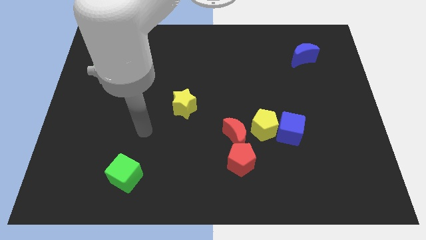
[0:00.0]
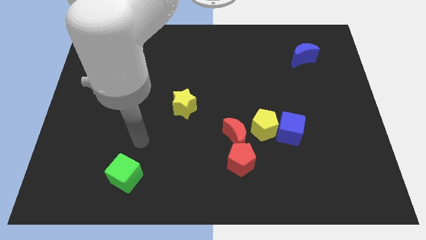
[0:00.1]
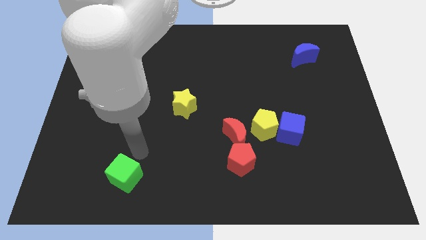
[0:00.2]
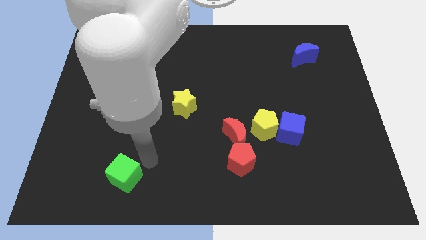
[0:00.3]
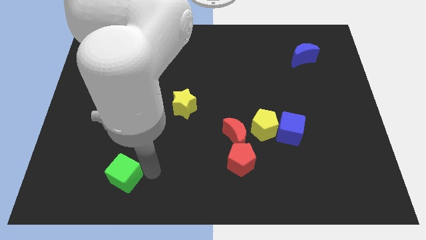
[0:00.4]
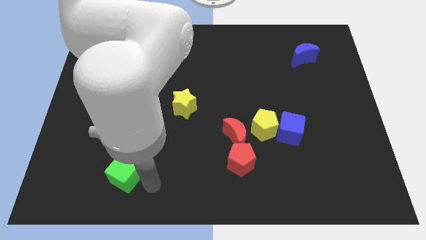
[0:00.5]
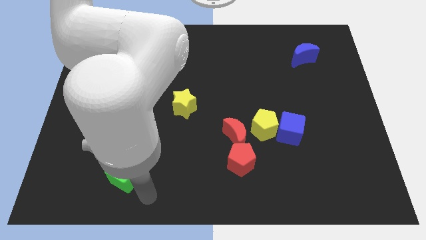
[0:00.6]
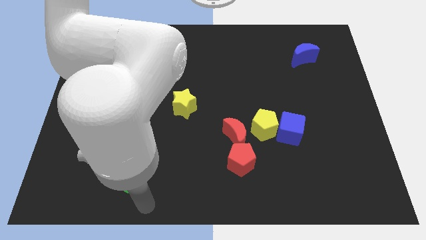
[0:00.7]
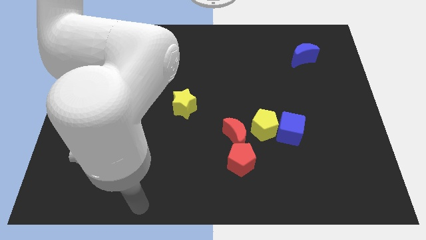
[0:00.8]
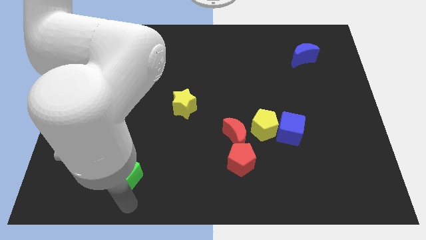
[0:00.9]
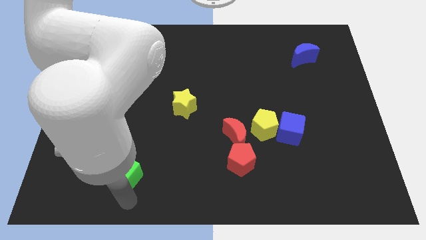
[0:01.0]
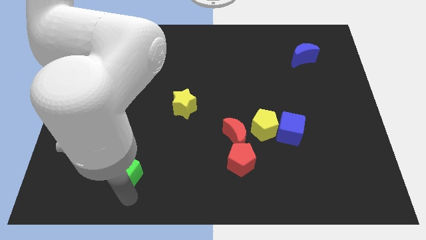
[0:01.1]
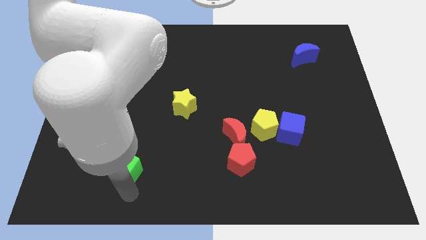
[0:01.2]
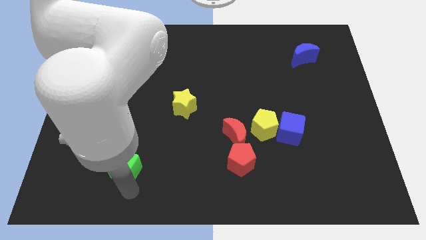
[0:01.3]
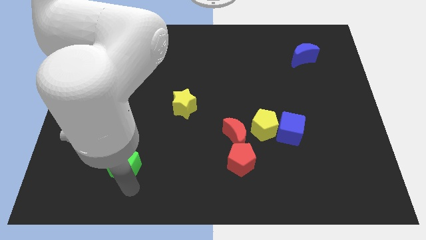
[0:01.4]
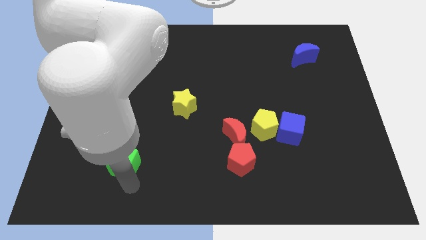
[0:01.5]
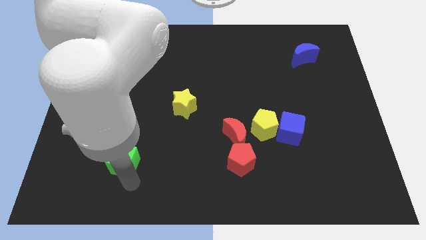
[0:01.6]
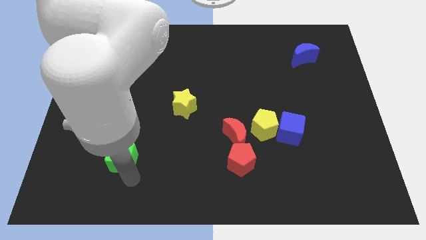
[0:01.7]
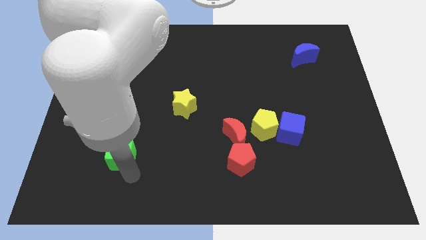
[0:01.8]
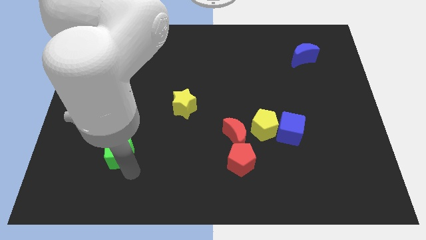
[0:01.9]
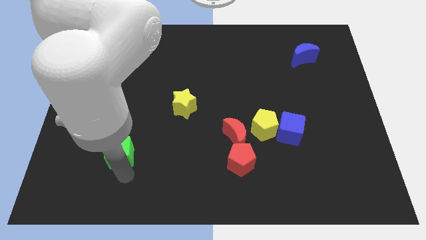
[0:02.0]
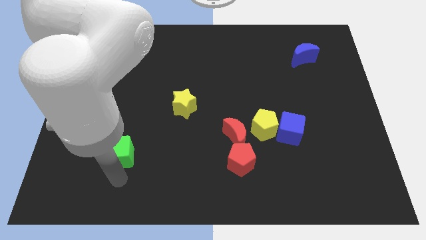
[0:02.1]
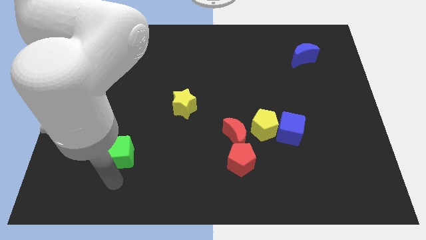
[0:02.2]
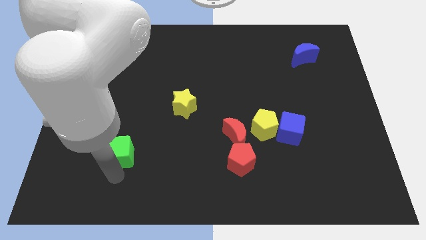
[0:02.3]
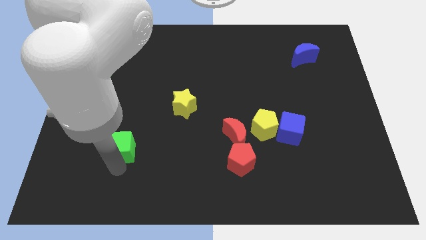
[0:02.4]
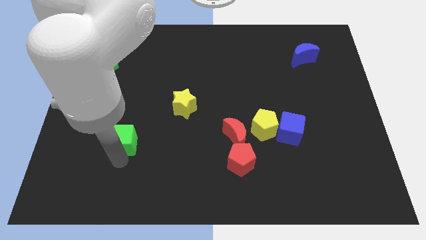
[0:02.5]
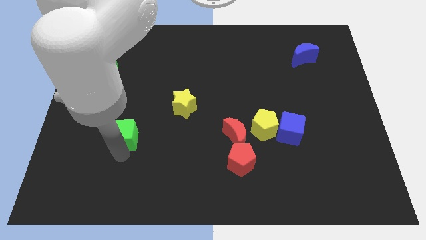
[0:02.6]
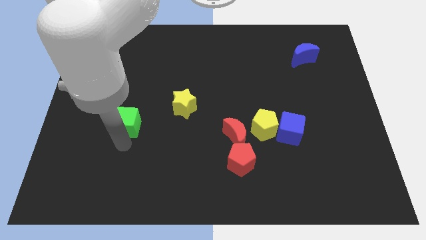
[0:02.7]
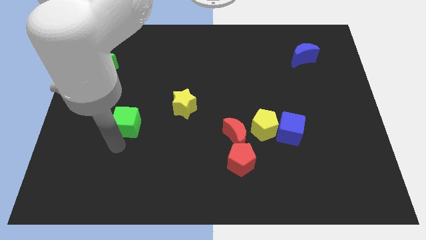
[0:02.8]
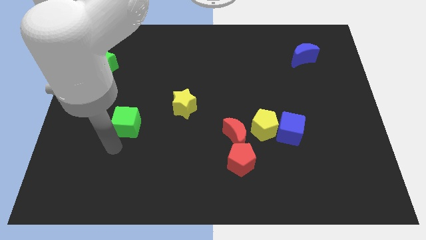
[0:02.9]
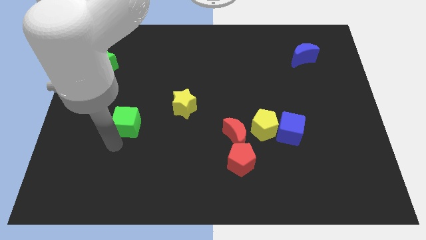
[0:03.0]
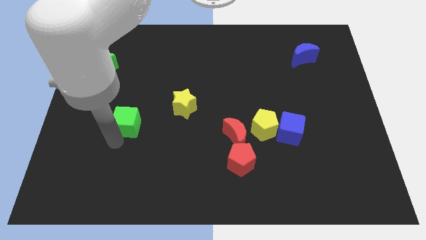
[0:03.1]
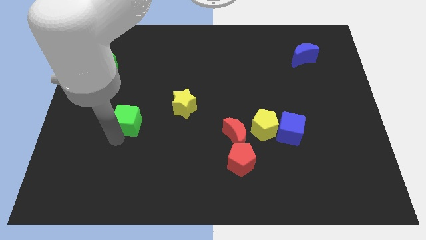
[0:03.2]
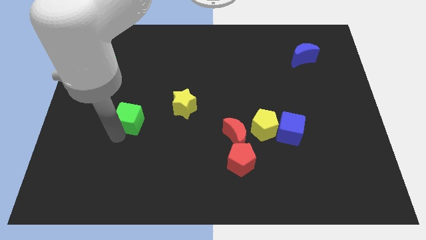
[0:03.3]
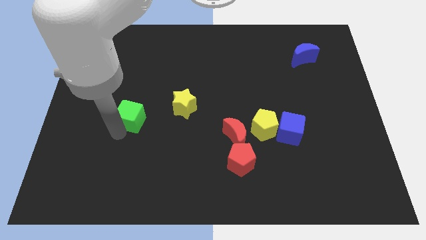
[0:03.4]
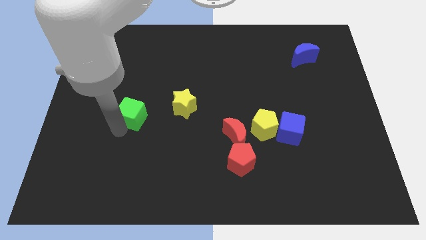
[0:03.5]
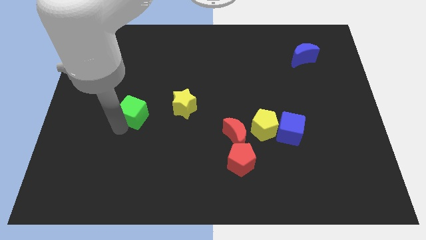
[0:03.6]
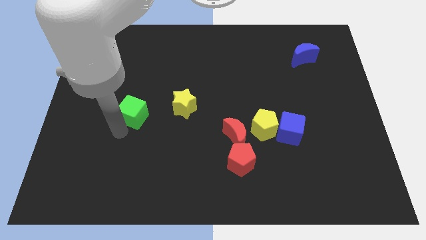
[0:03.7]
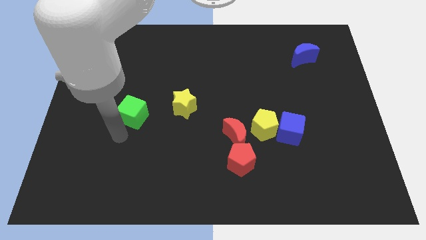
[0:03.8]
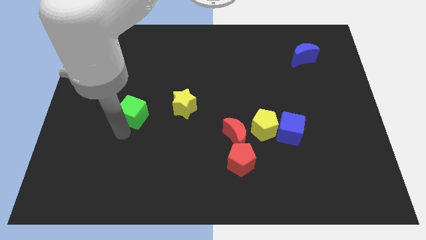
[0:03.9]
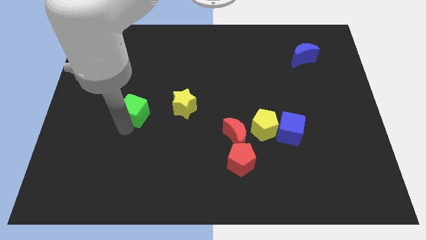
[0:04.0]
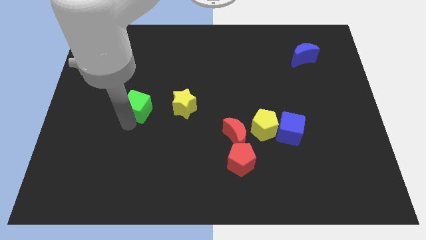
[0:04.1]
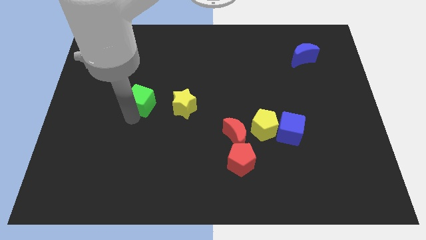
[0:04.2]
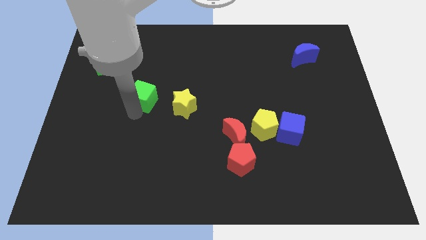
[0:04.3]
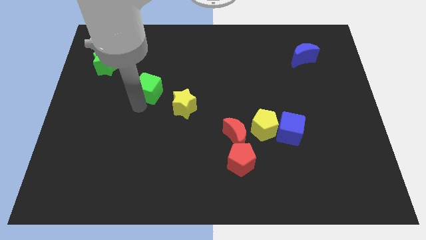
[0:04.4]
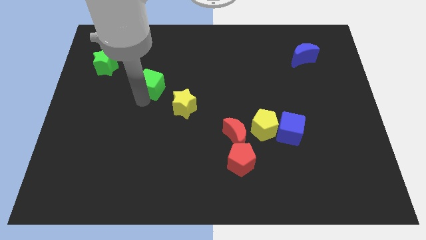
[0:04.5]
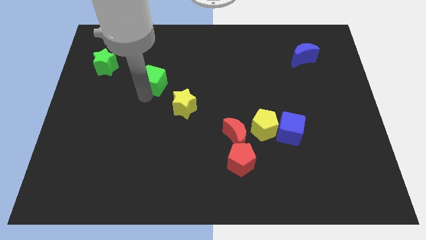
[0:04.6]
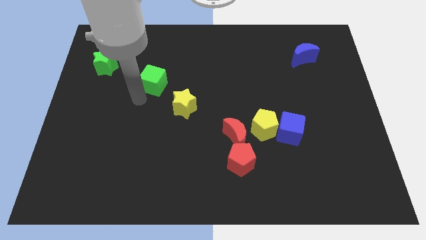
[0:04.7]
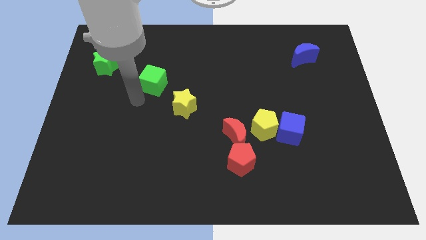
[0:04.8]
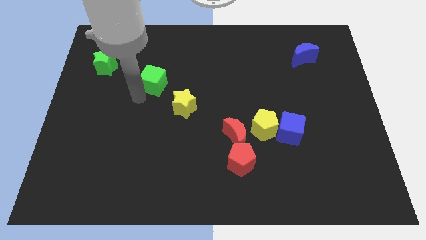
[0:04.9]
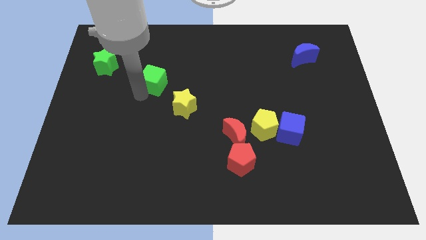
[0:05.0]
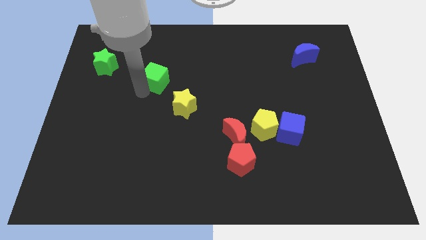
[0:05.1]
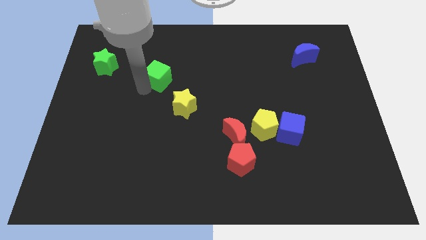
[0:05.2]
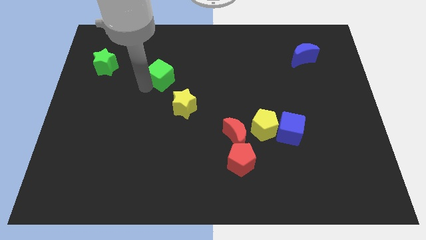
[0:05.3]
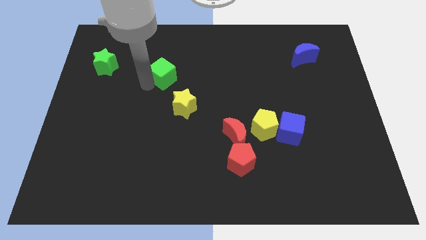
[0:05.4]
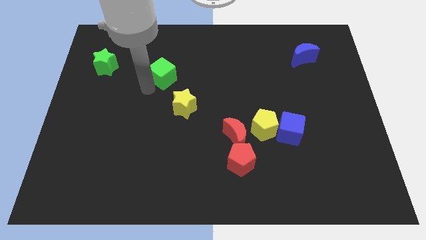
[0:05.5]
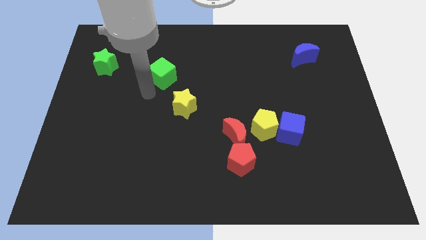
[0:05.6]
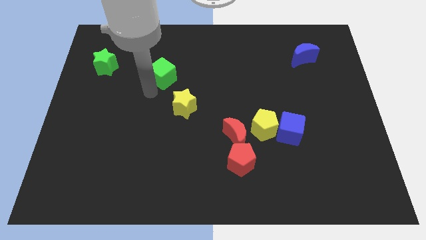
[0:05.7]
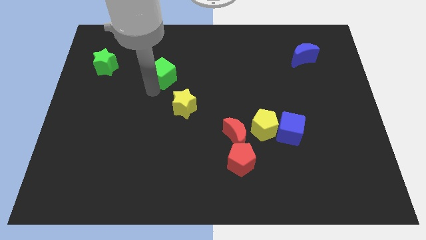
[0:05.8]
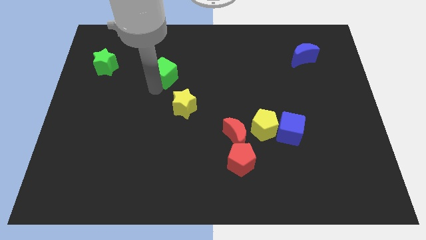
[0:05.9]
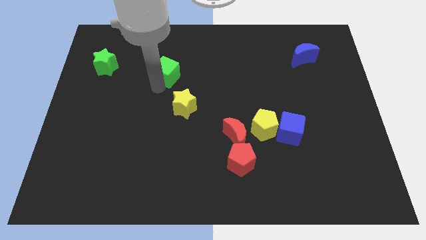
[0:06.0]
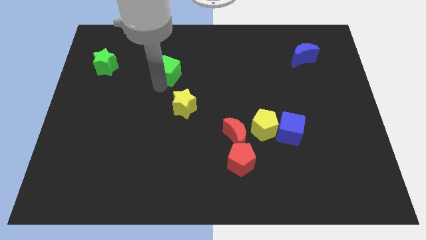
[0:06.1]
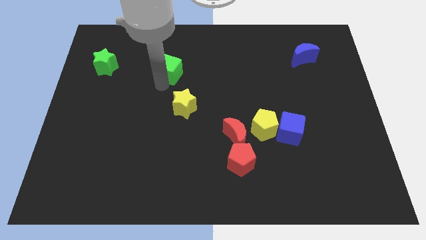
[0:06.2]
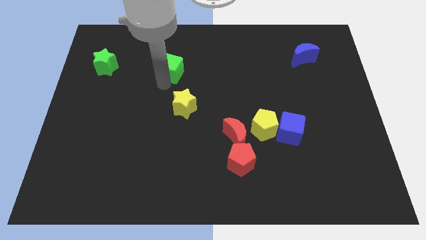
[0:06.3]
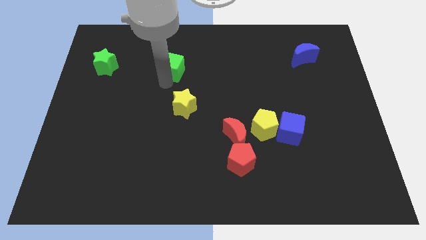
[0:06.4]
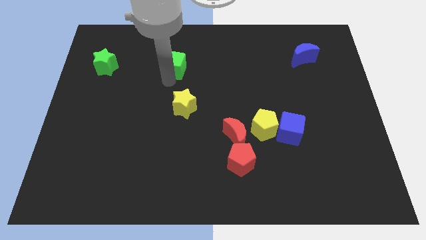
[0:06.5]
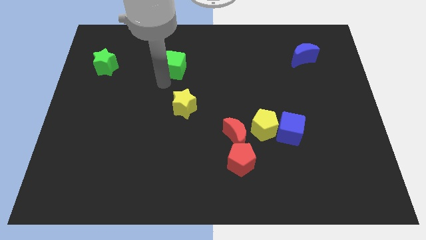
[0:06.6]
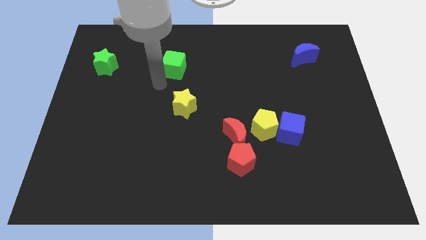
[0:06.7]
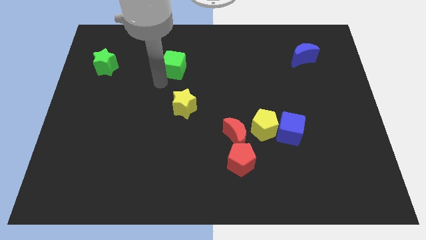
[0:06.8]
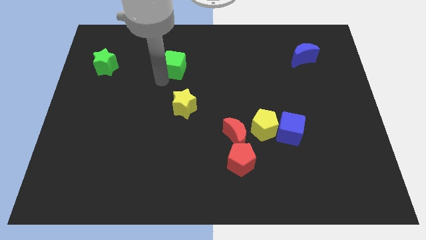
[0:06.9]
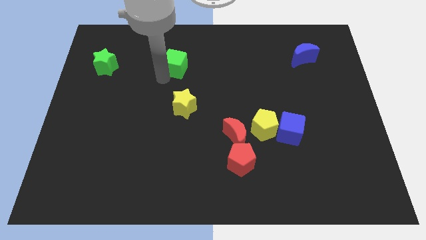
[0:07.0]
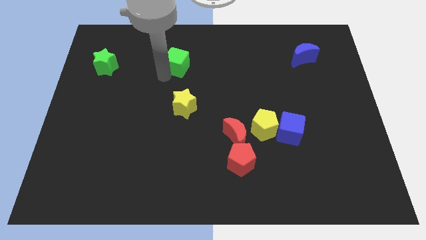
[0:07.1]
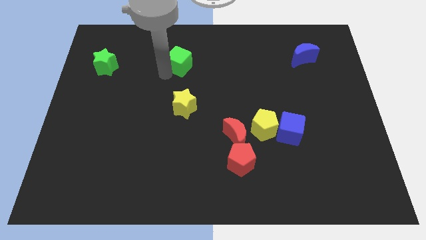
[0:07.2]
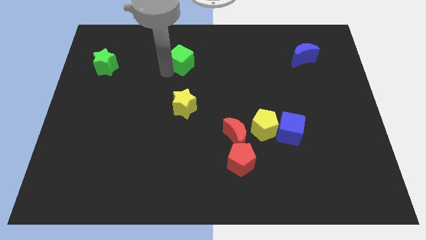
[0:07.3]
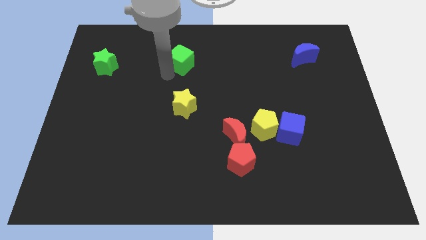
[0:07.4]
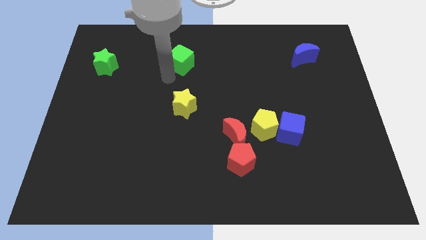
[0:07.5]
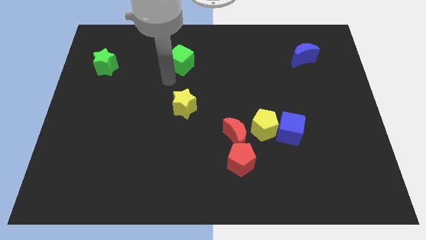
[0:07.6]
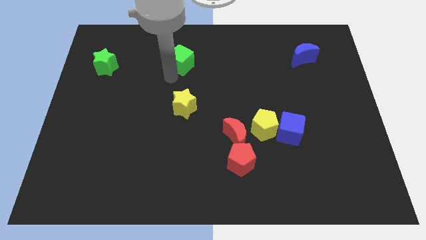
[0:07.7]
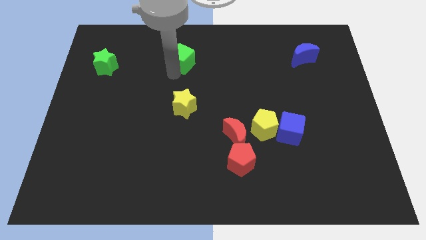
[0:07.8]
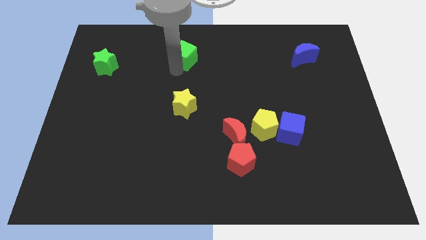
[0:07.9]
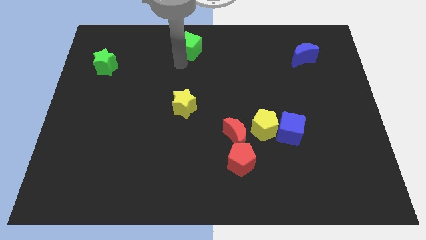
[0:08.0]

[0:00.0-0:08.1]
slide the green cube to the top side
